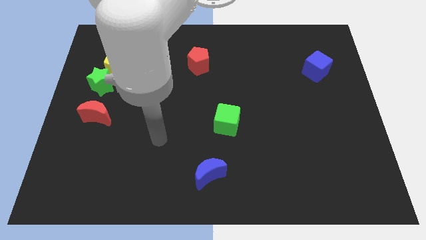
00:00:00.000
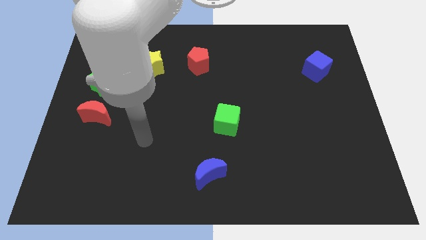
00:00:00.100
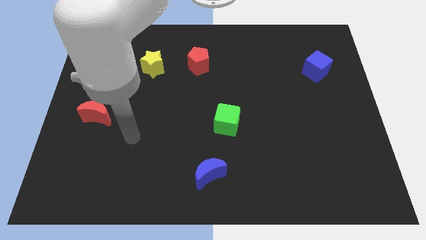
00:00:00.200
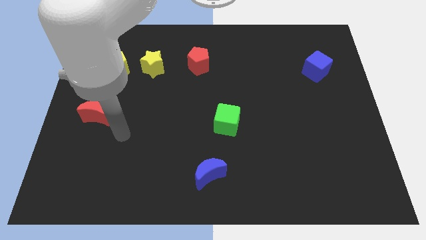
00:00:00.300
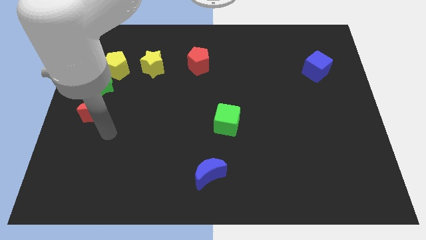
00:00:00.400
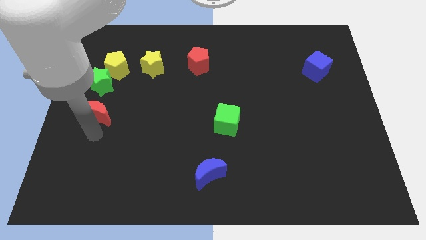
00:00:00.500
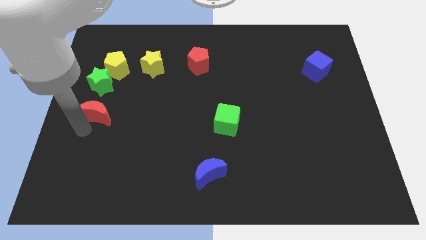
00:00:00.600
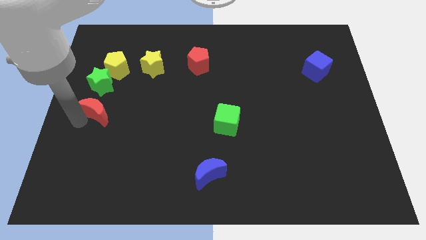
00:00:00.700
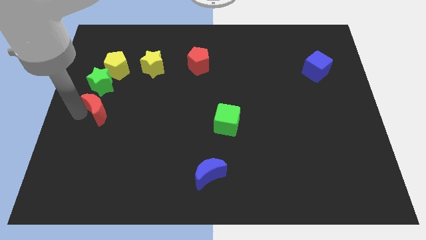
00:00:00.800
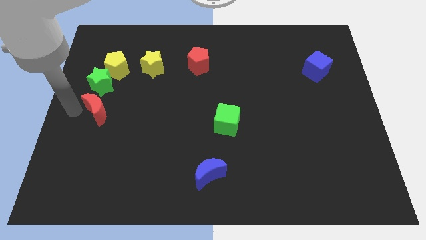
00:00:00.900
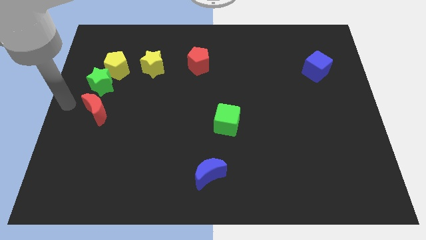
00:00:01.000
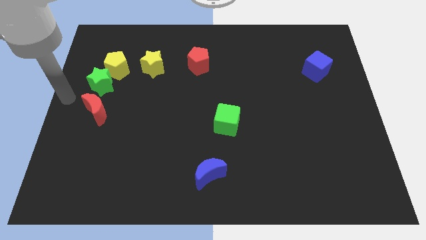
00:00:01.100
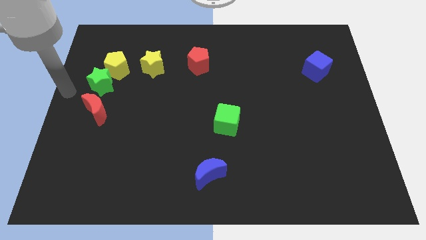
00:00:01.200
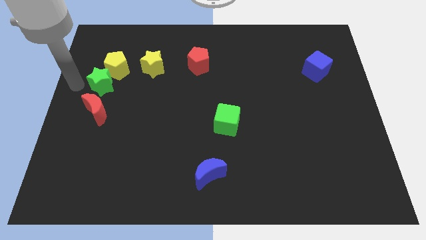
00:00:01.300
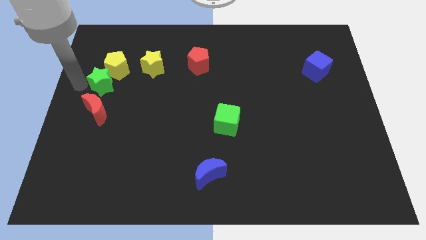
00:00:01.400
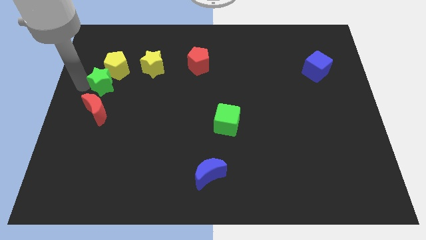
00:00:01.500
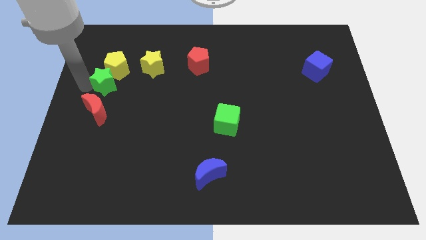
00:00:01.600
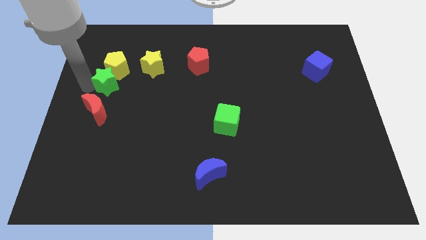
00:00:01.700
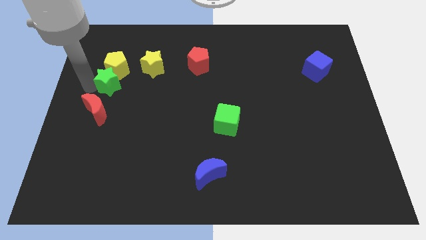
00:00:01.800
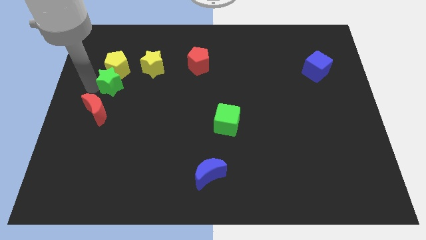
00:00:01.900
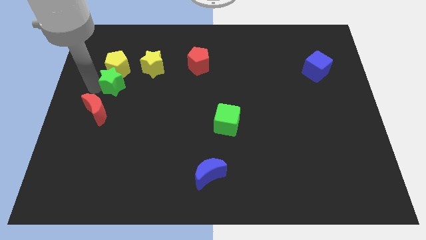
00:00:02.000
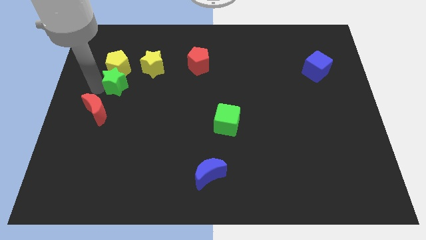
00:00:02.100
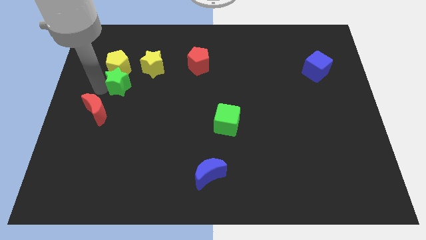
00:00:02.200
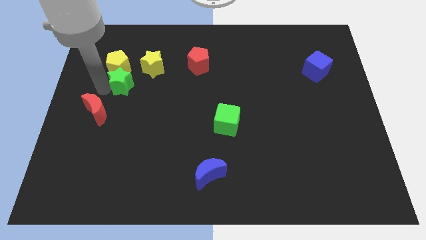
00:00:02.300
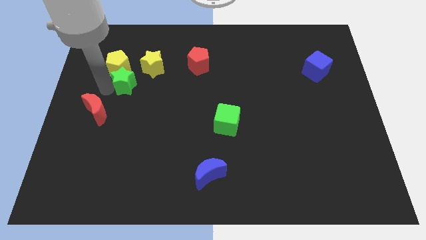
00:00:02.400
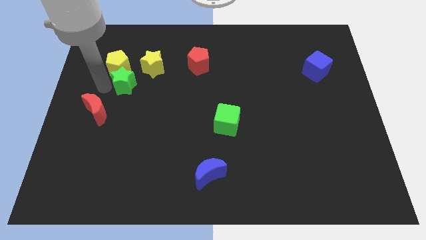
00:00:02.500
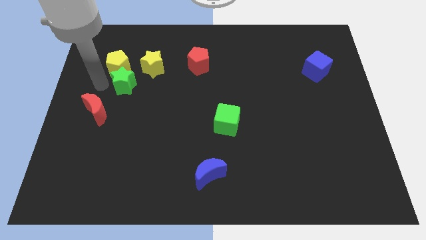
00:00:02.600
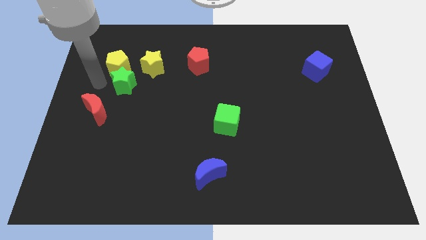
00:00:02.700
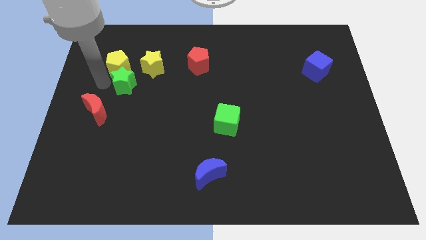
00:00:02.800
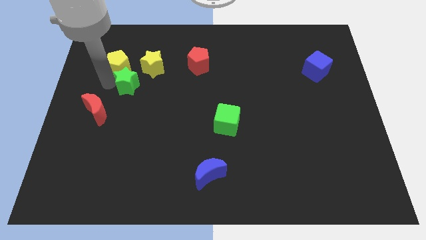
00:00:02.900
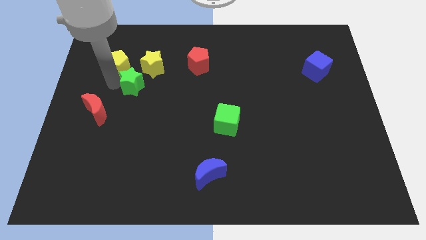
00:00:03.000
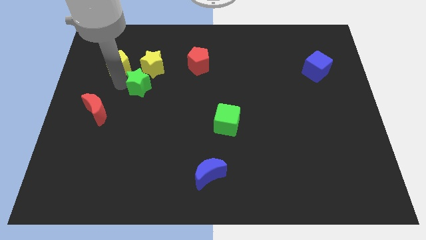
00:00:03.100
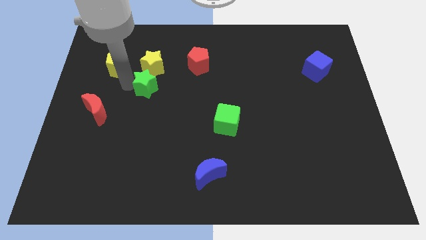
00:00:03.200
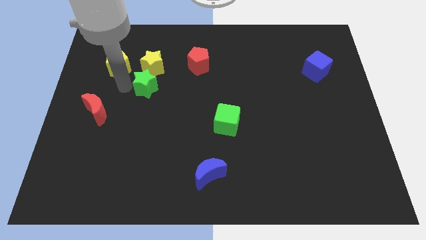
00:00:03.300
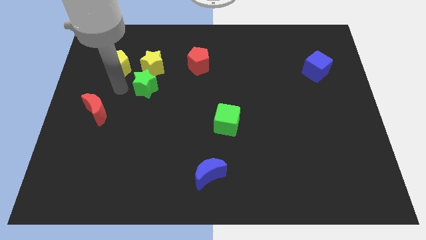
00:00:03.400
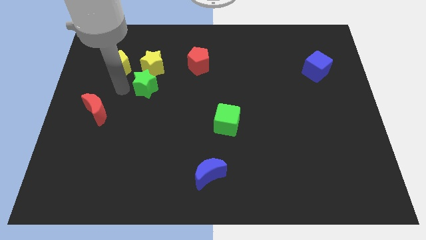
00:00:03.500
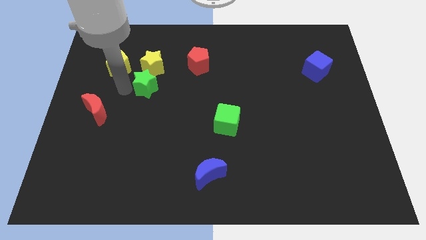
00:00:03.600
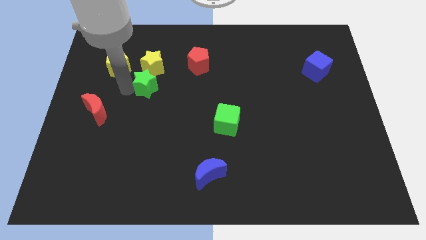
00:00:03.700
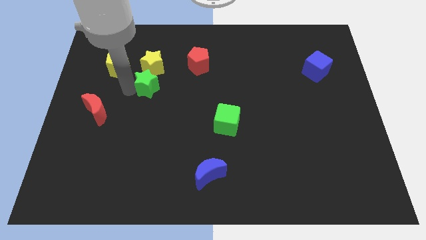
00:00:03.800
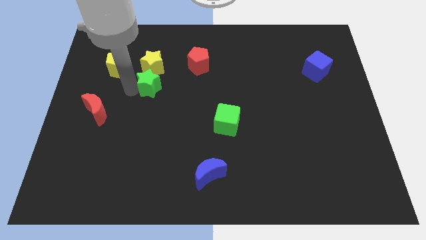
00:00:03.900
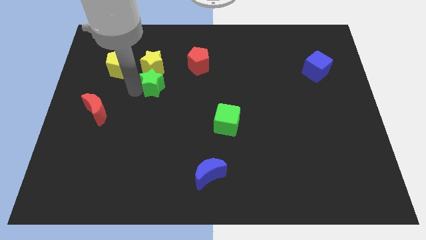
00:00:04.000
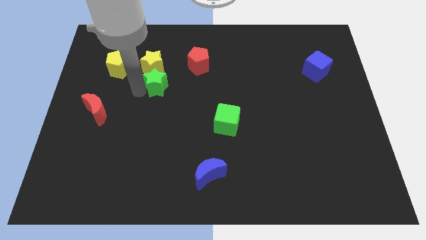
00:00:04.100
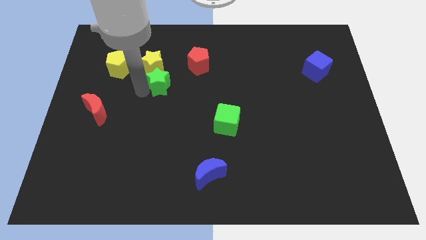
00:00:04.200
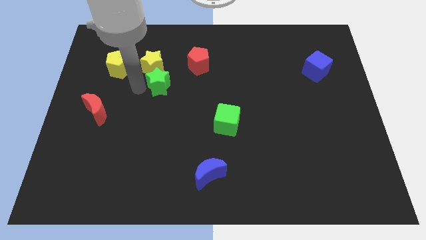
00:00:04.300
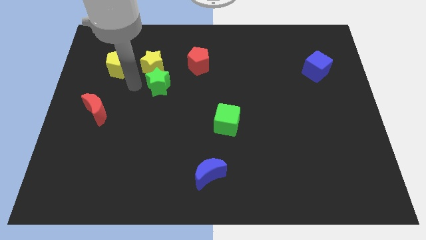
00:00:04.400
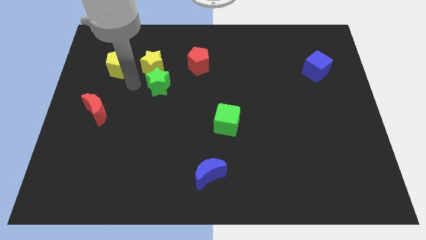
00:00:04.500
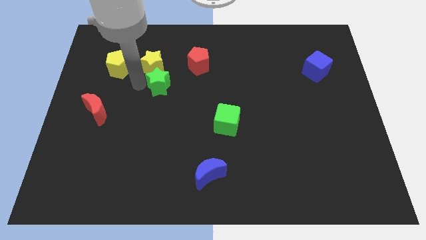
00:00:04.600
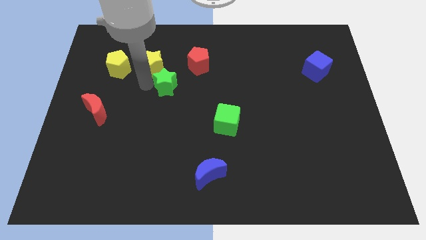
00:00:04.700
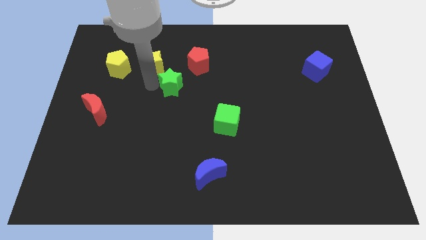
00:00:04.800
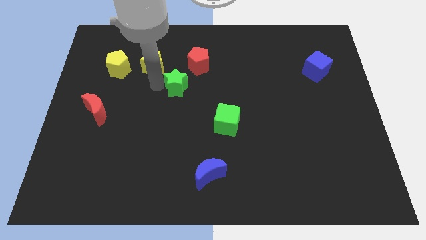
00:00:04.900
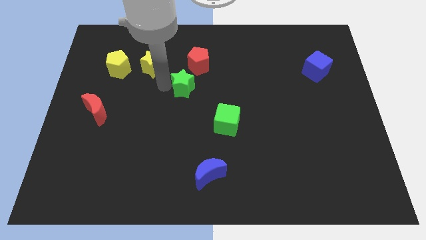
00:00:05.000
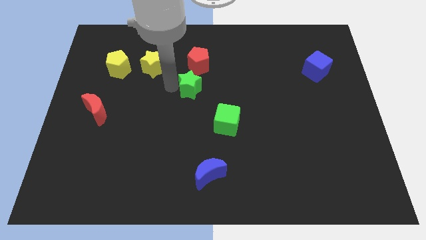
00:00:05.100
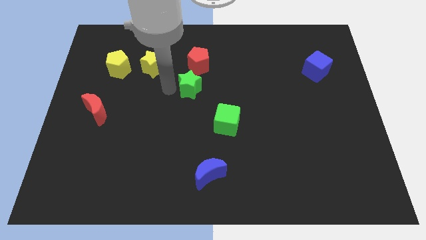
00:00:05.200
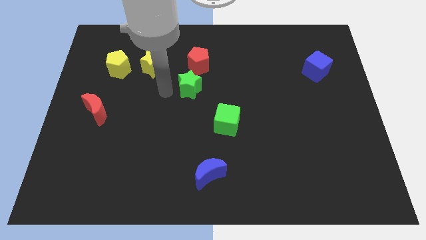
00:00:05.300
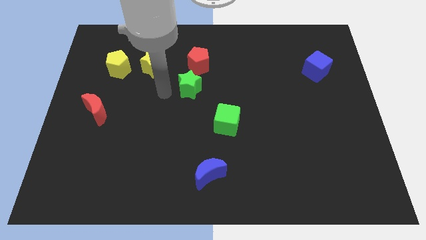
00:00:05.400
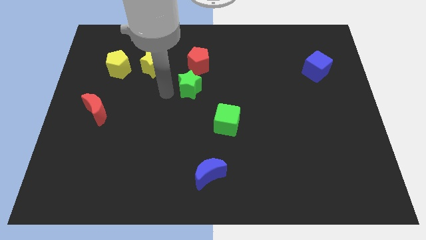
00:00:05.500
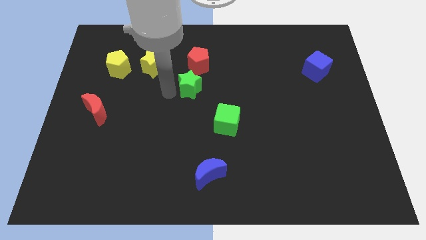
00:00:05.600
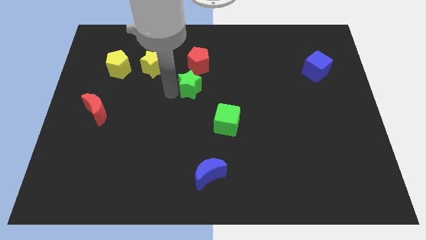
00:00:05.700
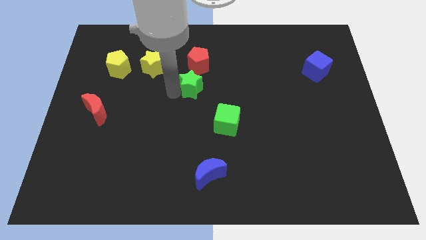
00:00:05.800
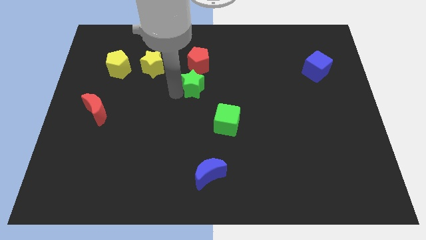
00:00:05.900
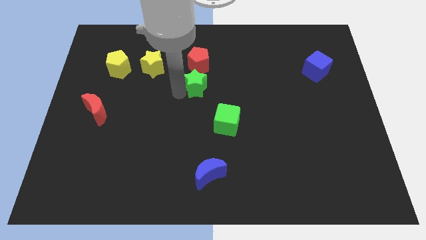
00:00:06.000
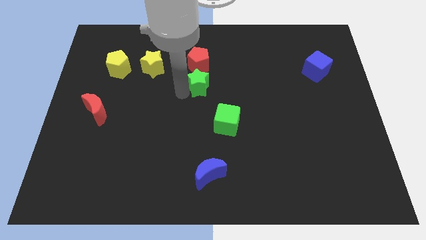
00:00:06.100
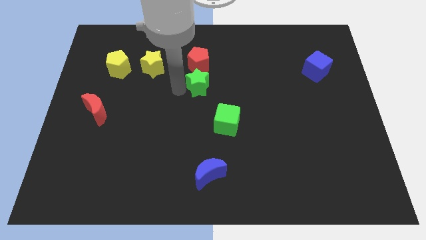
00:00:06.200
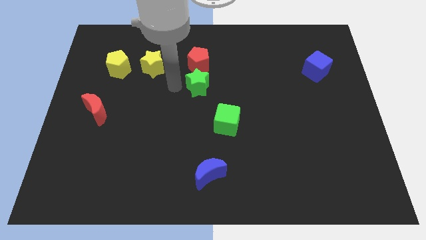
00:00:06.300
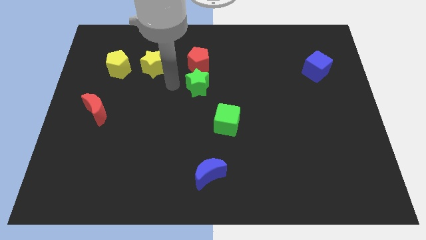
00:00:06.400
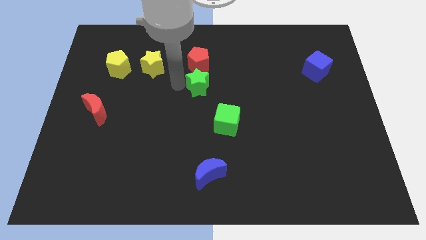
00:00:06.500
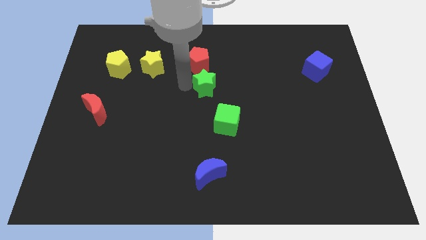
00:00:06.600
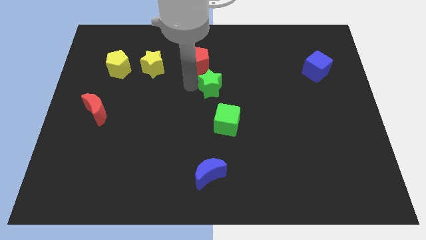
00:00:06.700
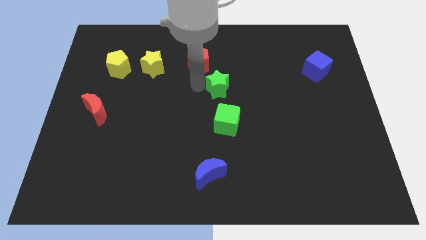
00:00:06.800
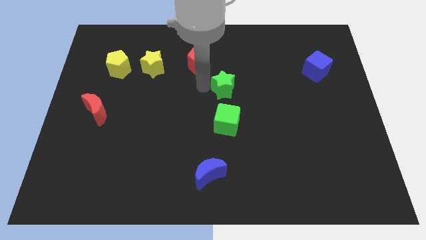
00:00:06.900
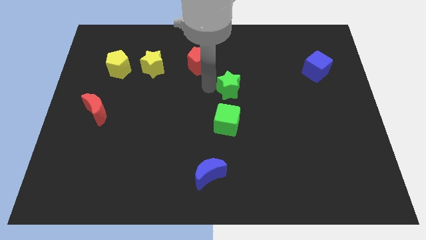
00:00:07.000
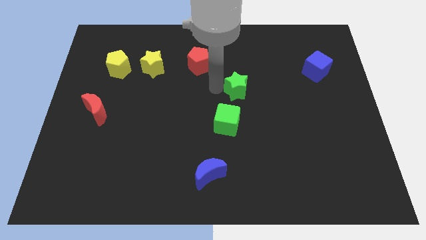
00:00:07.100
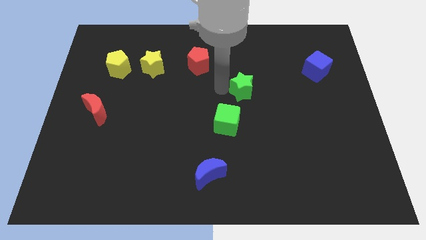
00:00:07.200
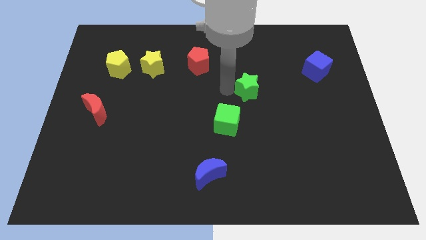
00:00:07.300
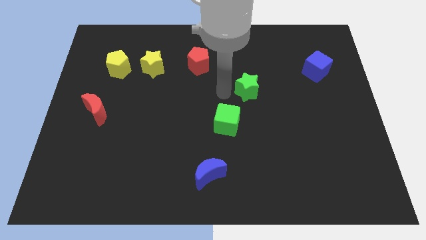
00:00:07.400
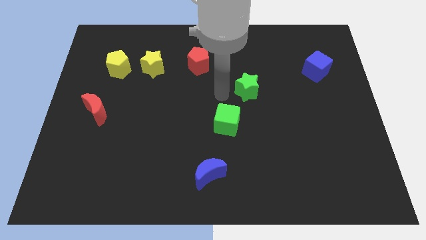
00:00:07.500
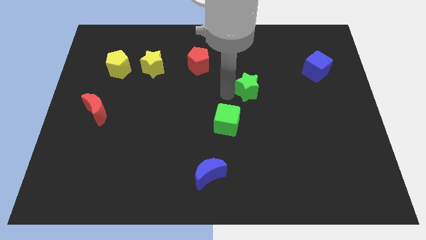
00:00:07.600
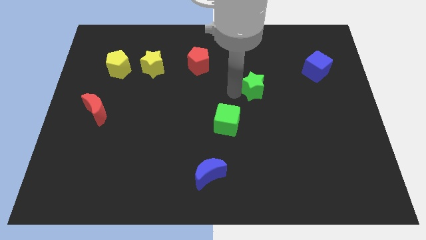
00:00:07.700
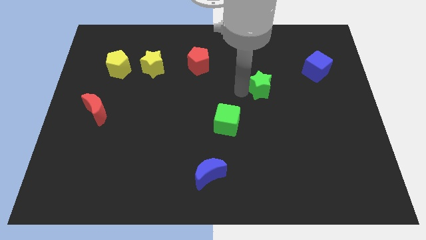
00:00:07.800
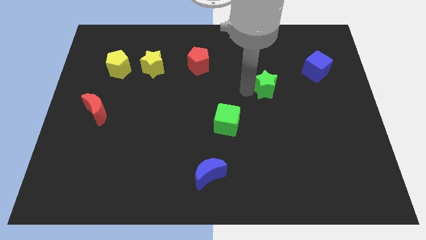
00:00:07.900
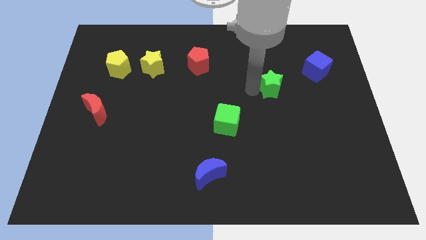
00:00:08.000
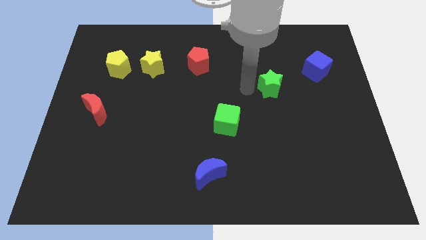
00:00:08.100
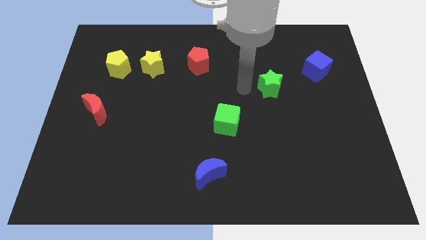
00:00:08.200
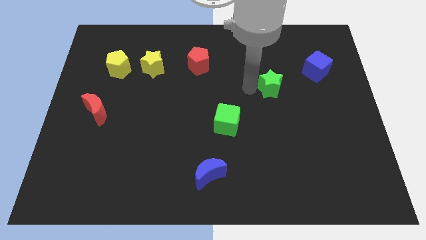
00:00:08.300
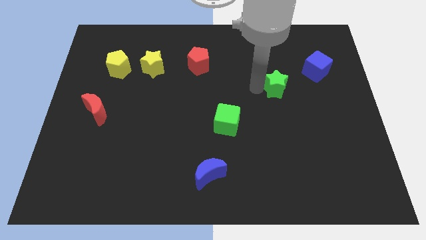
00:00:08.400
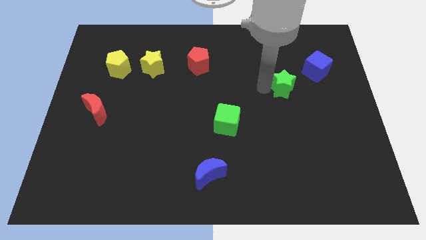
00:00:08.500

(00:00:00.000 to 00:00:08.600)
move the green star to the bottom left side of the blue cube

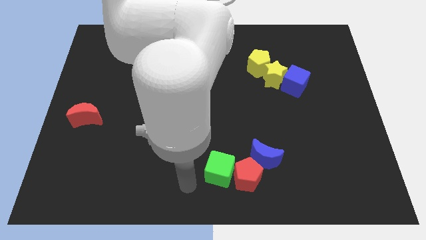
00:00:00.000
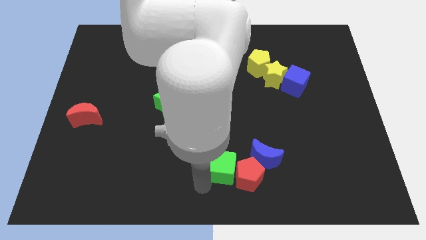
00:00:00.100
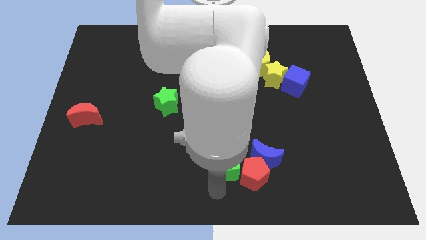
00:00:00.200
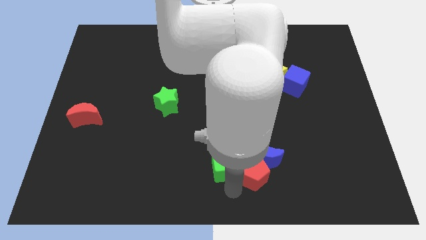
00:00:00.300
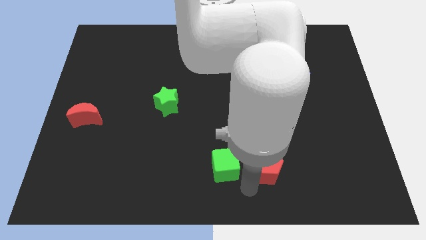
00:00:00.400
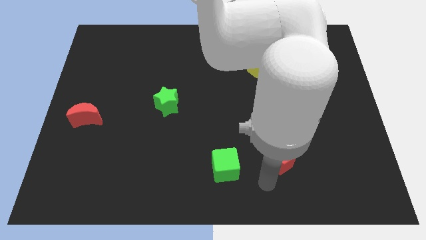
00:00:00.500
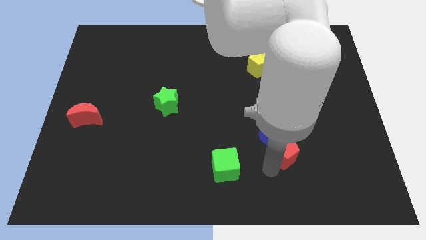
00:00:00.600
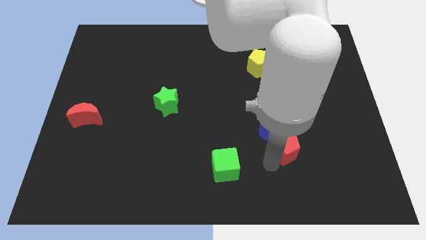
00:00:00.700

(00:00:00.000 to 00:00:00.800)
put the blue moon below the yellow star
